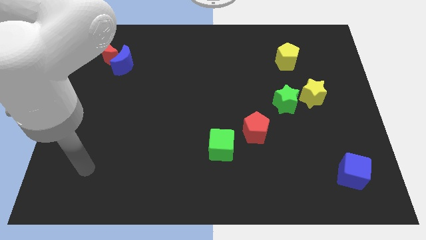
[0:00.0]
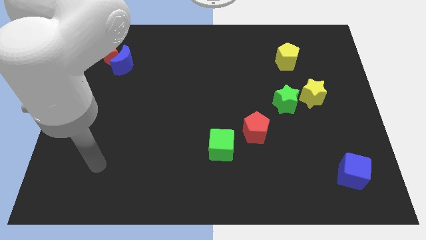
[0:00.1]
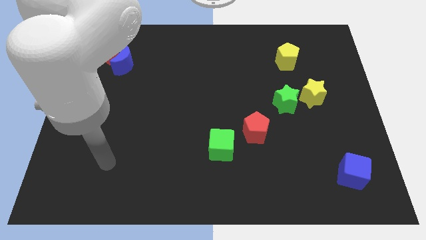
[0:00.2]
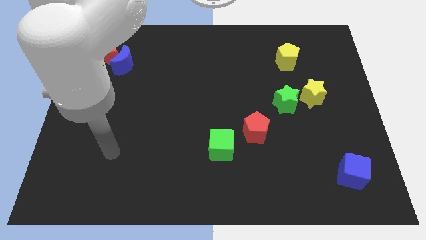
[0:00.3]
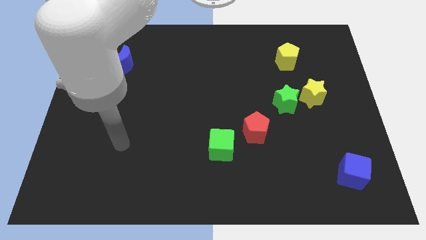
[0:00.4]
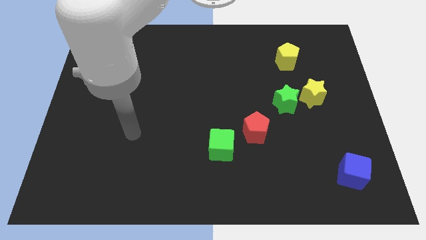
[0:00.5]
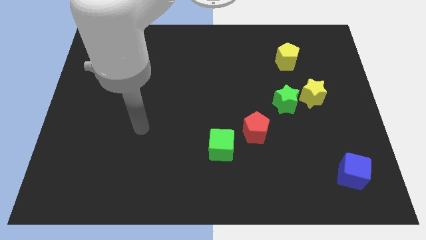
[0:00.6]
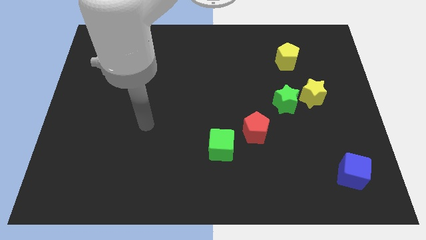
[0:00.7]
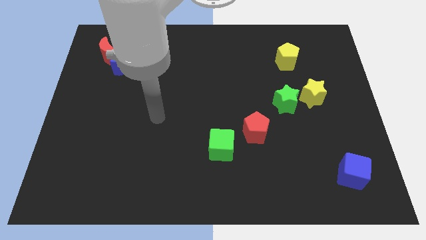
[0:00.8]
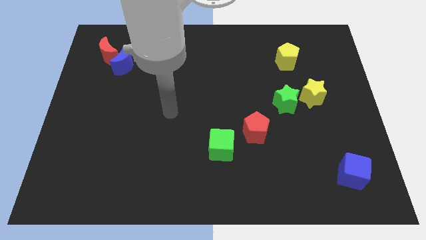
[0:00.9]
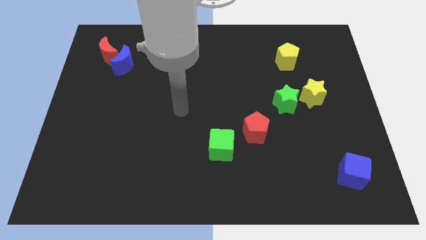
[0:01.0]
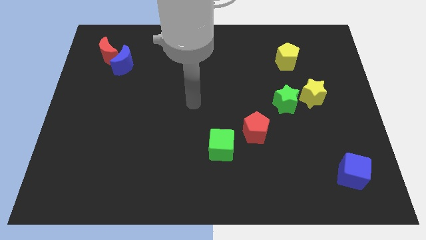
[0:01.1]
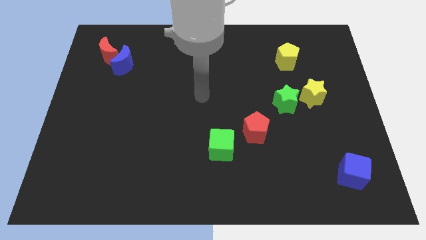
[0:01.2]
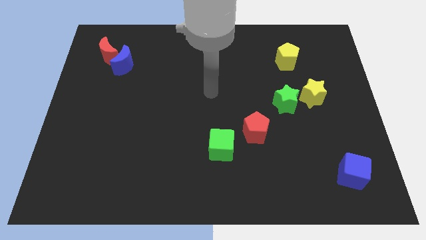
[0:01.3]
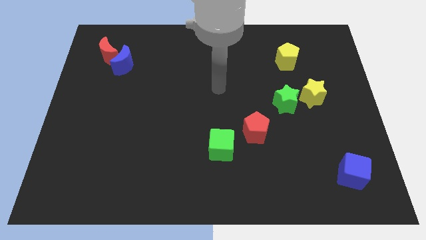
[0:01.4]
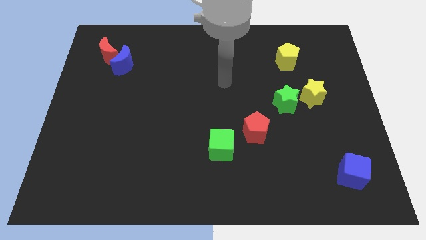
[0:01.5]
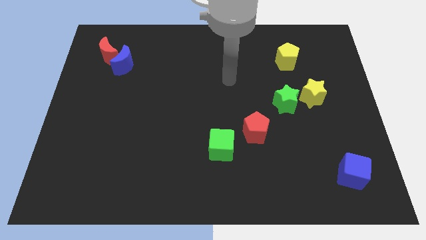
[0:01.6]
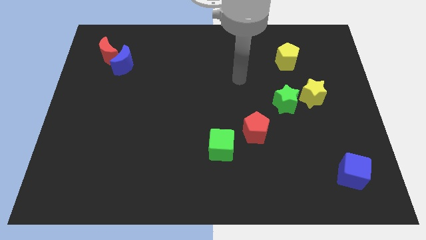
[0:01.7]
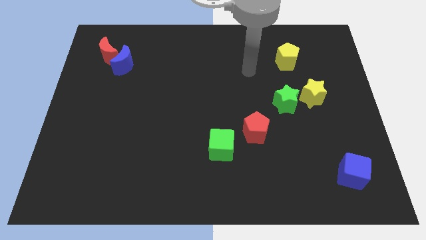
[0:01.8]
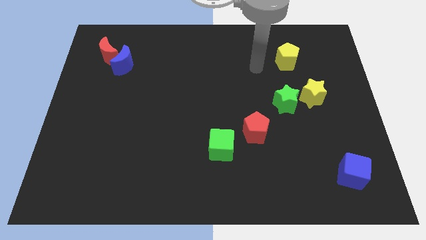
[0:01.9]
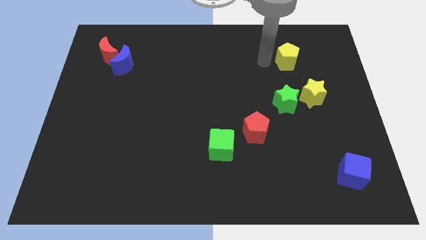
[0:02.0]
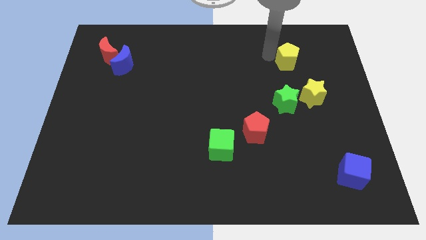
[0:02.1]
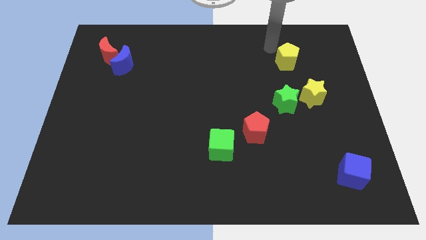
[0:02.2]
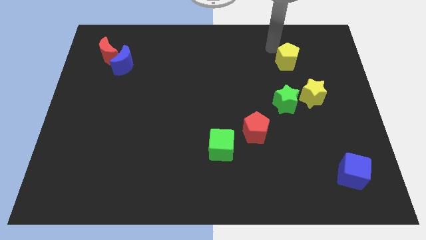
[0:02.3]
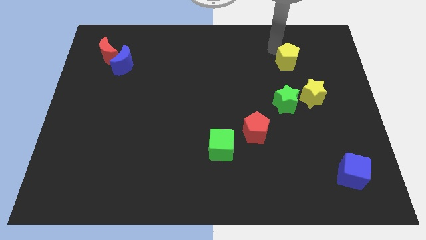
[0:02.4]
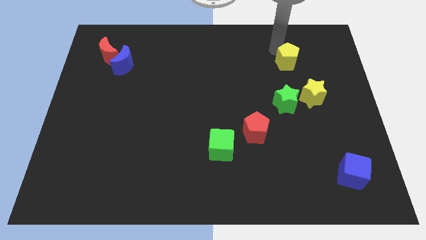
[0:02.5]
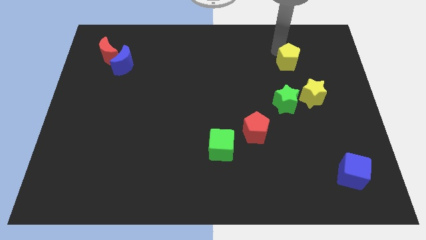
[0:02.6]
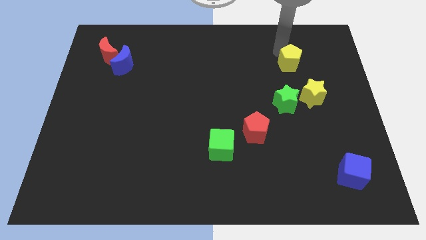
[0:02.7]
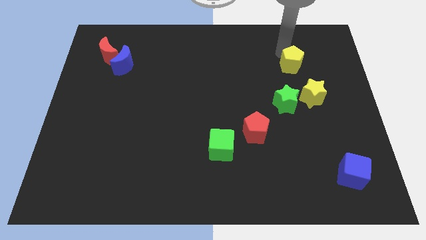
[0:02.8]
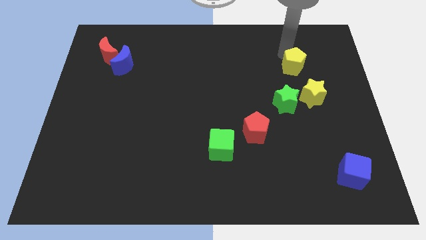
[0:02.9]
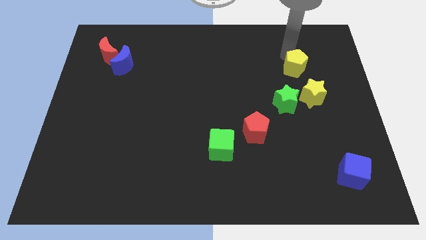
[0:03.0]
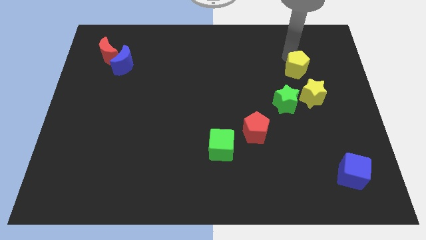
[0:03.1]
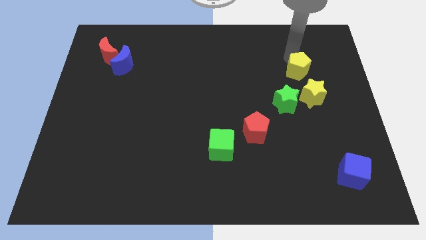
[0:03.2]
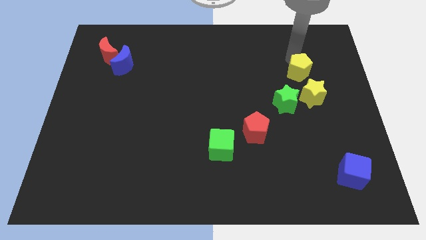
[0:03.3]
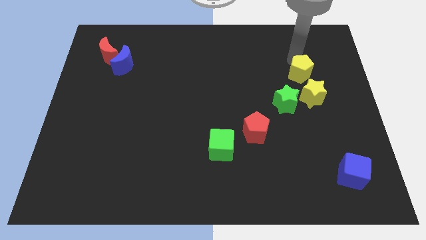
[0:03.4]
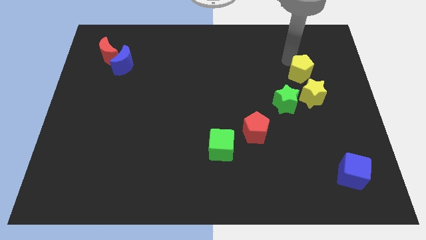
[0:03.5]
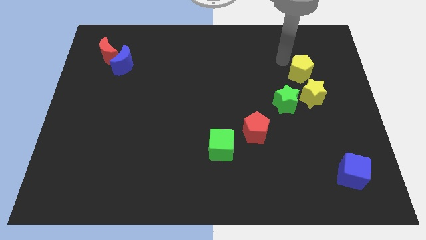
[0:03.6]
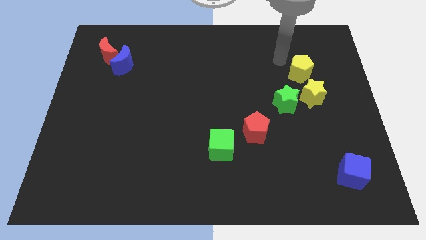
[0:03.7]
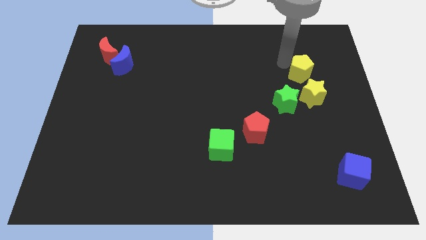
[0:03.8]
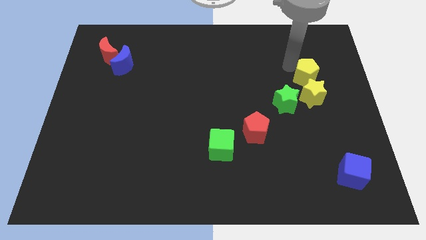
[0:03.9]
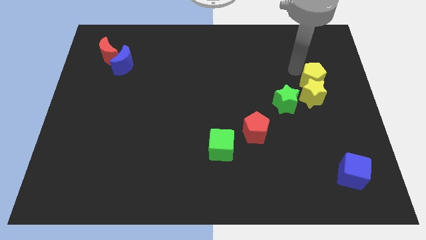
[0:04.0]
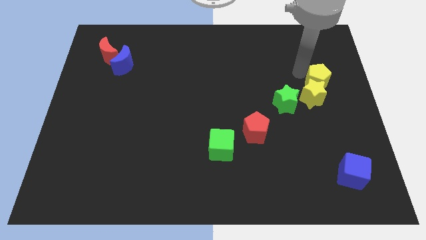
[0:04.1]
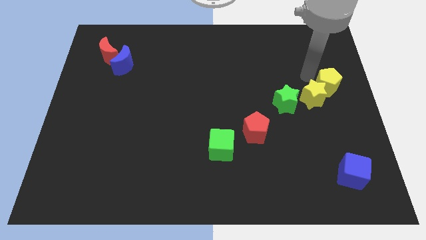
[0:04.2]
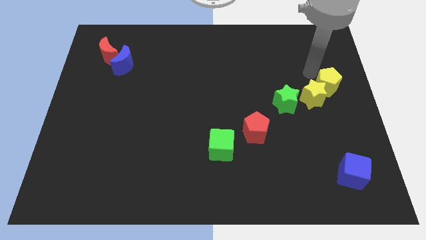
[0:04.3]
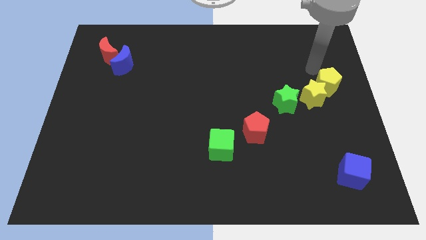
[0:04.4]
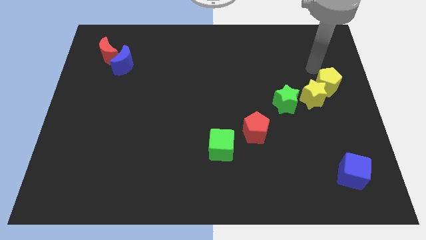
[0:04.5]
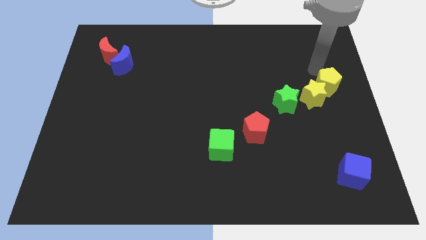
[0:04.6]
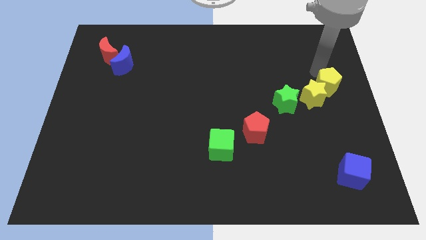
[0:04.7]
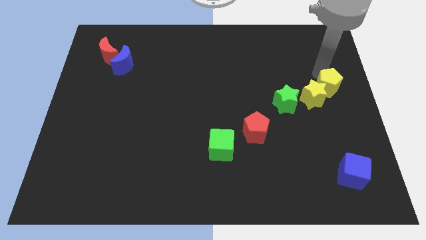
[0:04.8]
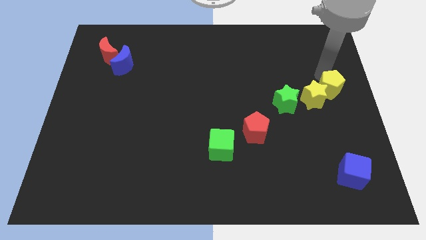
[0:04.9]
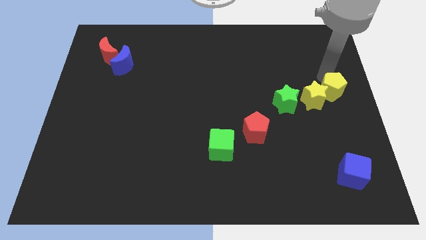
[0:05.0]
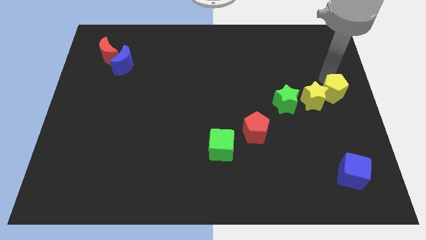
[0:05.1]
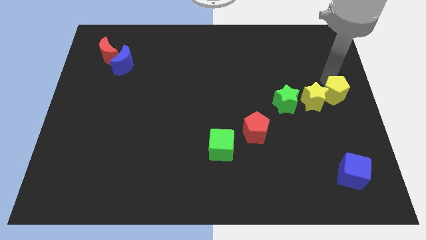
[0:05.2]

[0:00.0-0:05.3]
slightly slide the yellow pentagon downwards

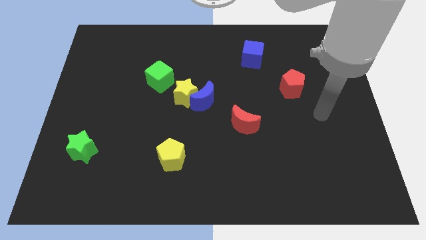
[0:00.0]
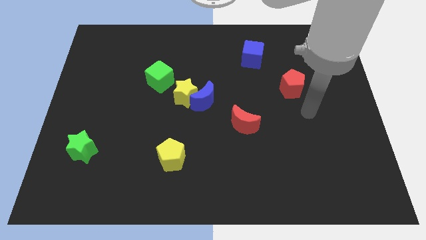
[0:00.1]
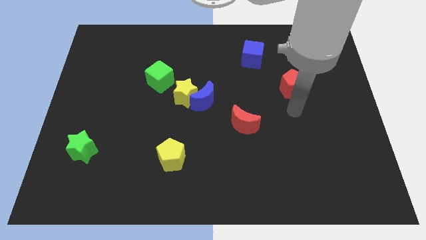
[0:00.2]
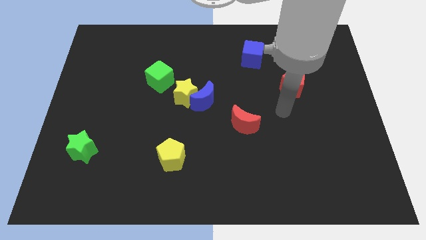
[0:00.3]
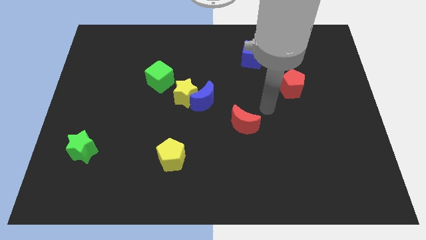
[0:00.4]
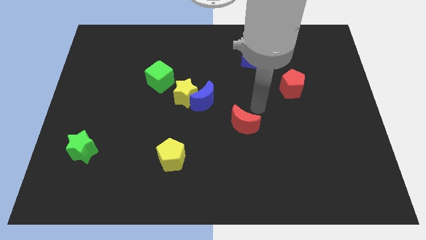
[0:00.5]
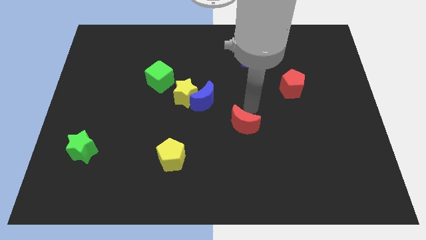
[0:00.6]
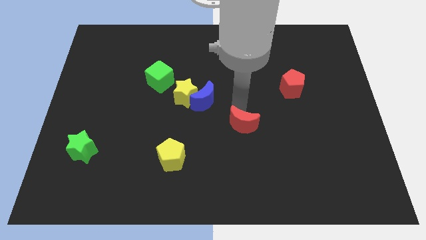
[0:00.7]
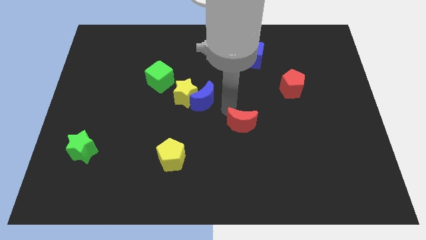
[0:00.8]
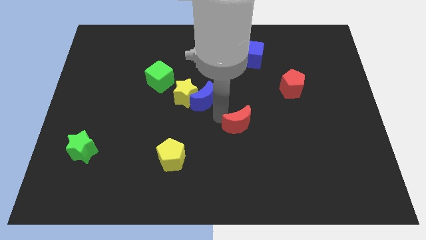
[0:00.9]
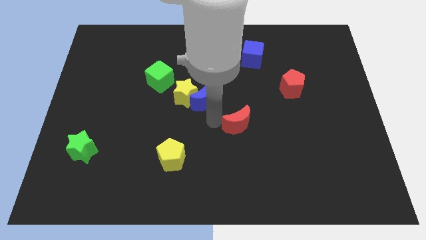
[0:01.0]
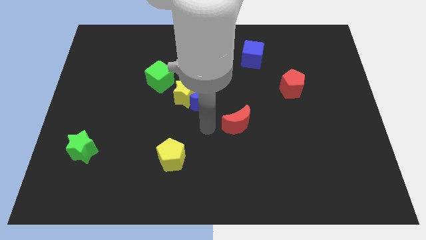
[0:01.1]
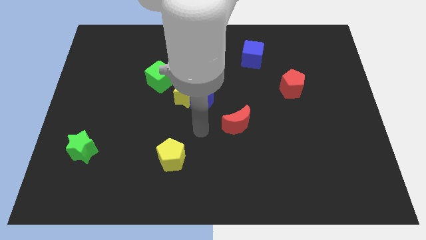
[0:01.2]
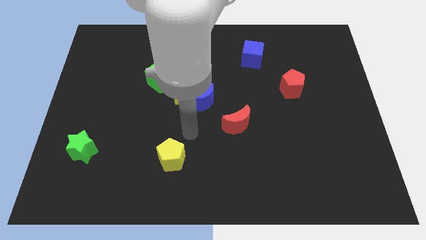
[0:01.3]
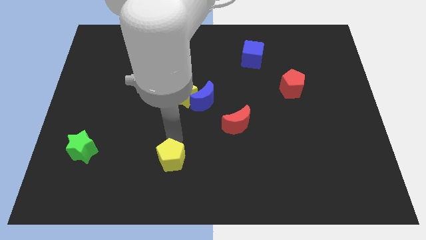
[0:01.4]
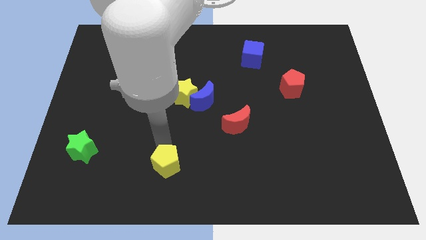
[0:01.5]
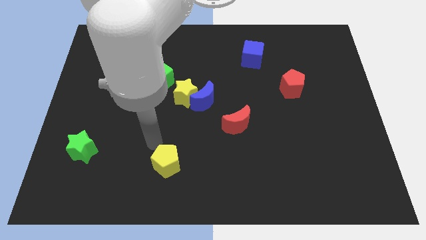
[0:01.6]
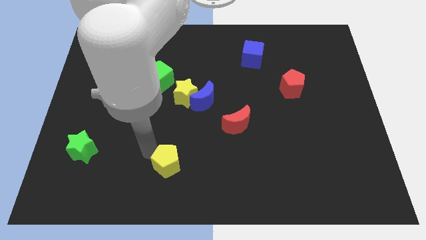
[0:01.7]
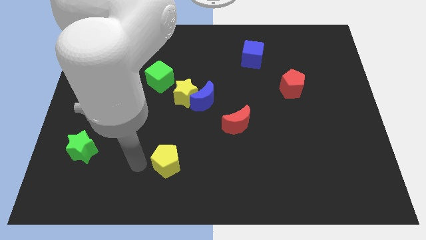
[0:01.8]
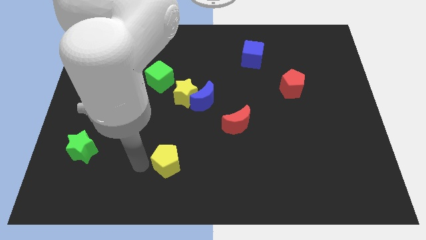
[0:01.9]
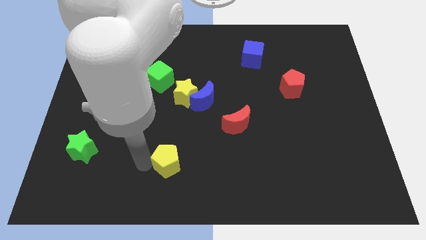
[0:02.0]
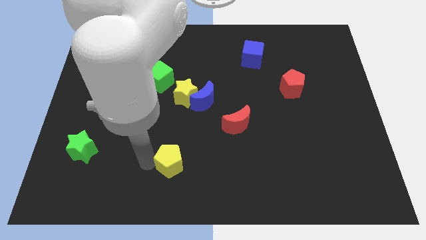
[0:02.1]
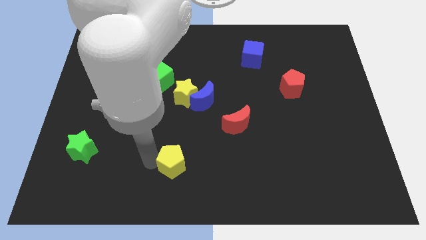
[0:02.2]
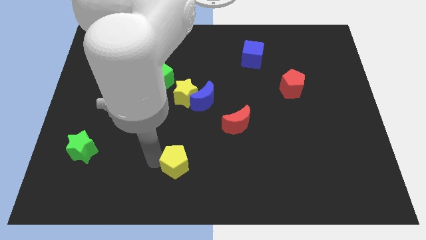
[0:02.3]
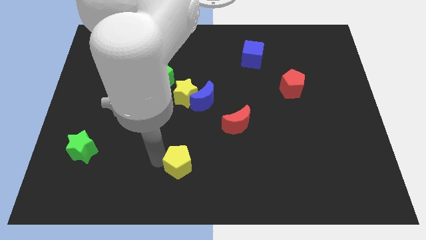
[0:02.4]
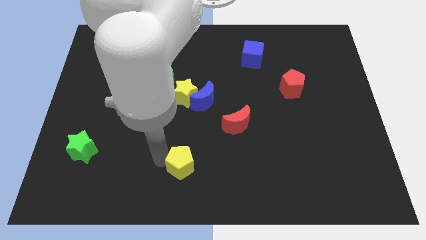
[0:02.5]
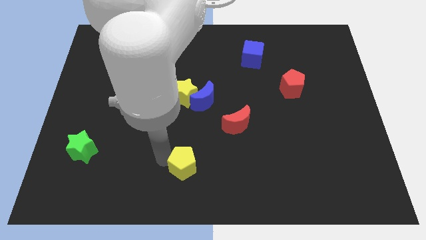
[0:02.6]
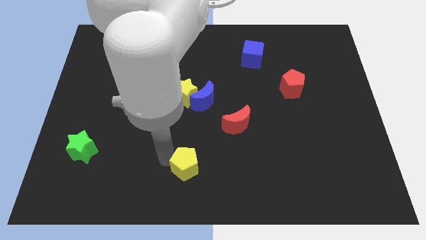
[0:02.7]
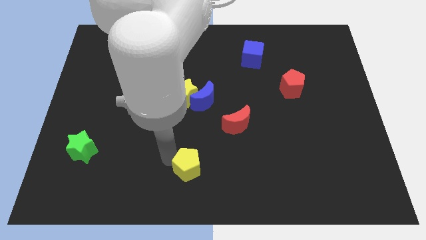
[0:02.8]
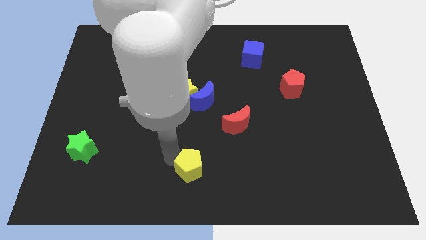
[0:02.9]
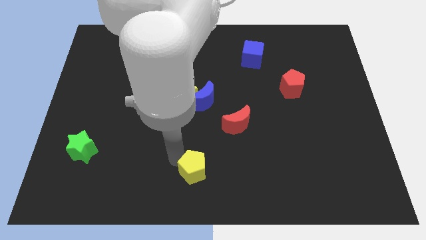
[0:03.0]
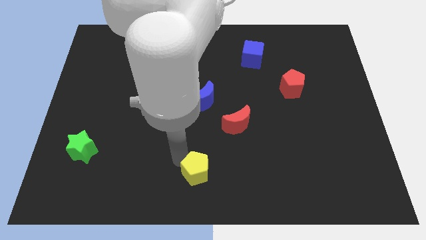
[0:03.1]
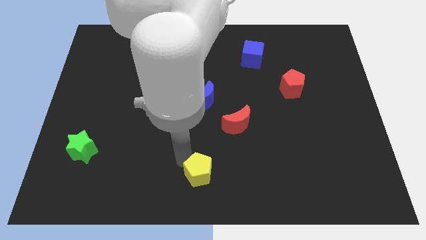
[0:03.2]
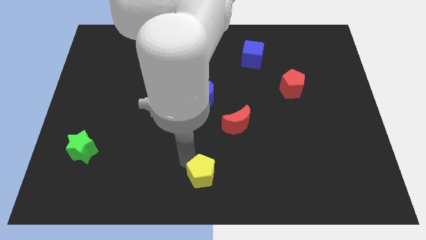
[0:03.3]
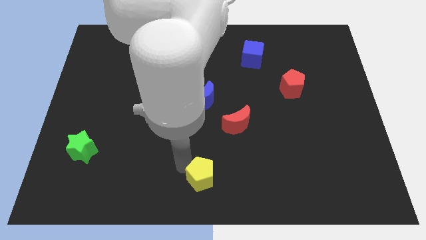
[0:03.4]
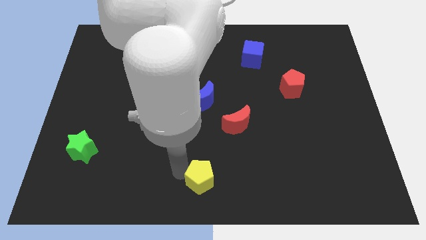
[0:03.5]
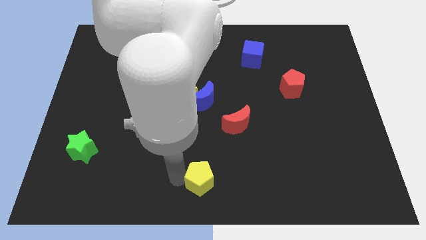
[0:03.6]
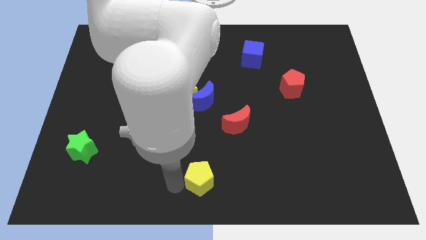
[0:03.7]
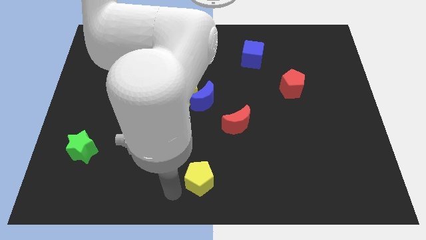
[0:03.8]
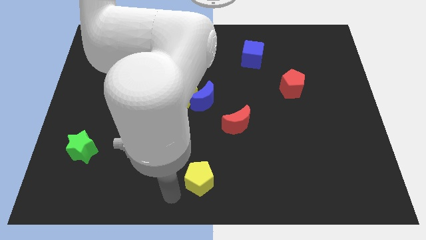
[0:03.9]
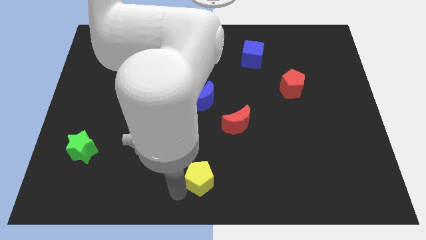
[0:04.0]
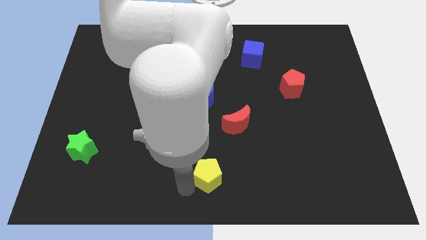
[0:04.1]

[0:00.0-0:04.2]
slightly slide the yellow pentagon to the right
